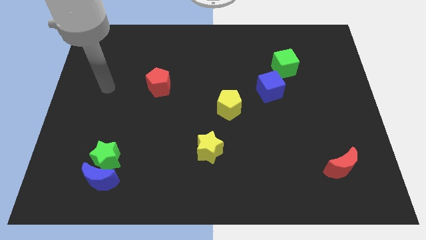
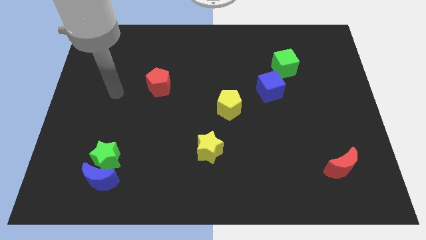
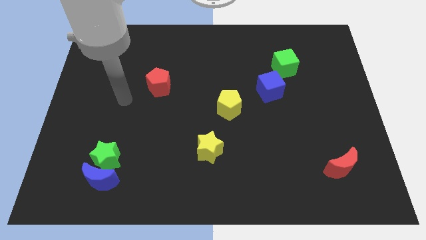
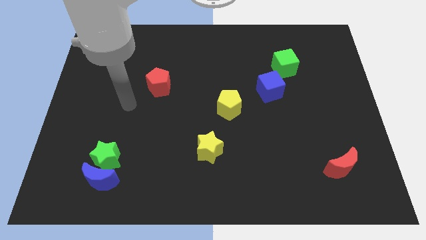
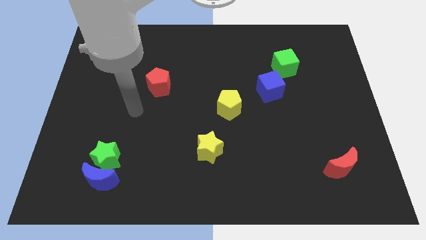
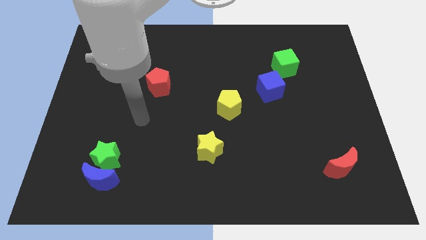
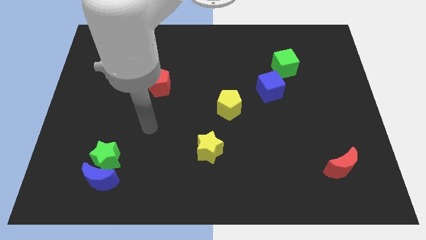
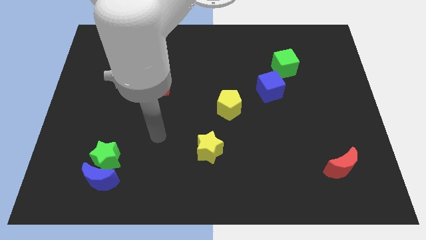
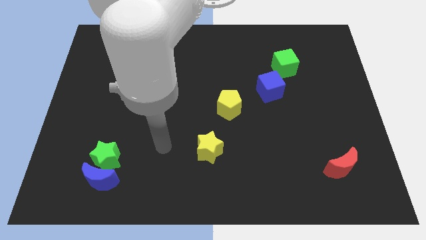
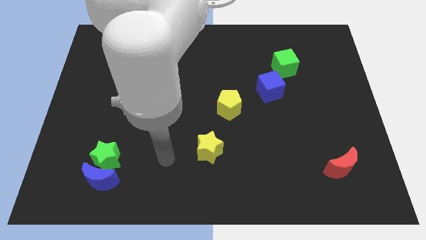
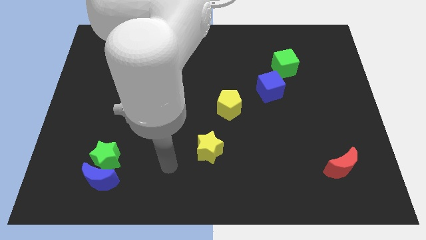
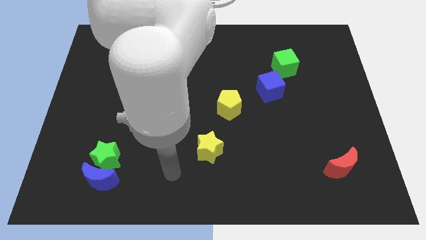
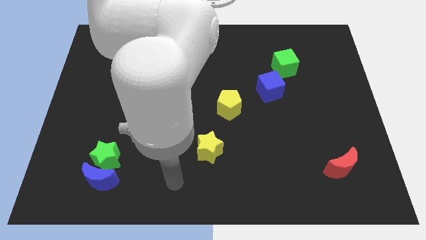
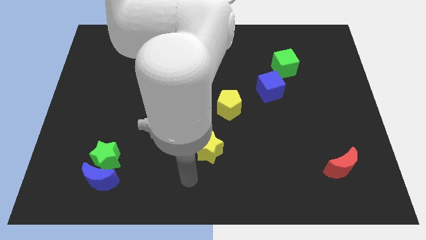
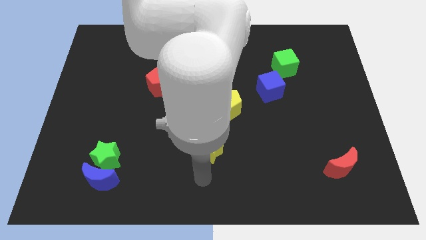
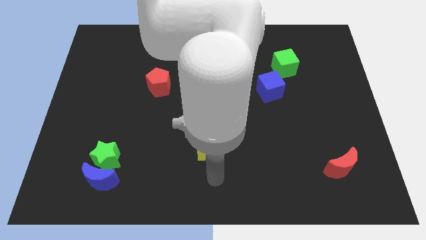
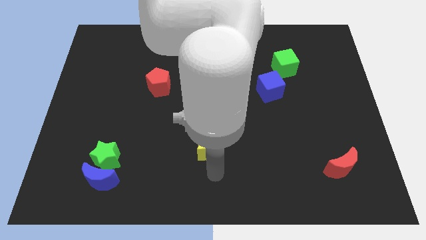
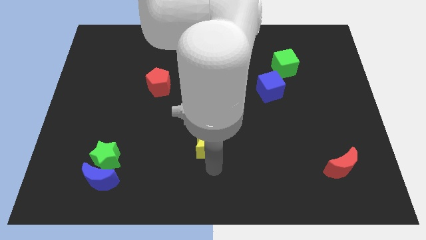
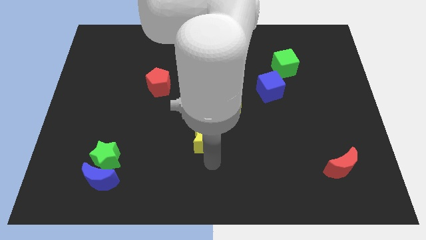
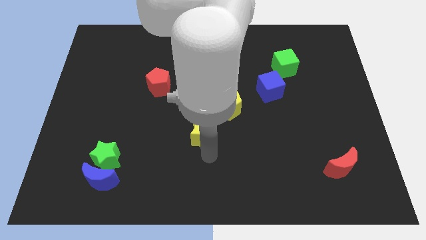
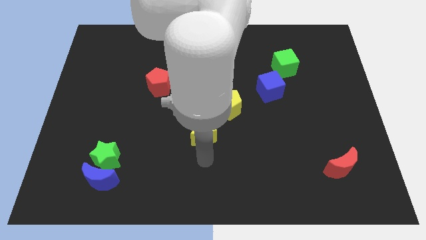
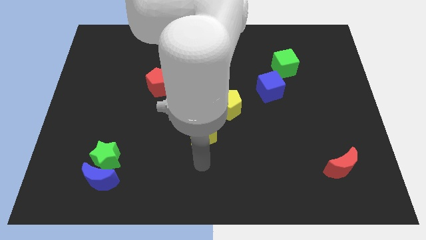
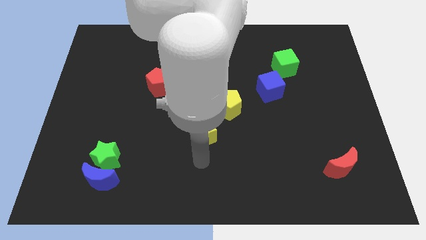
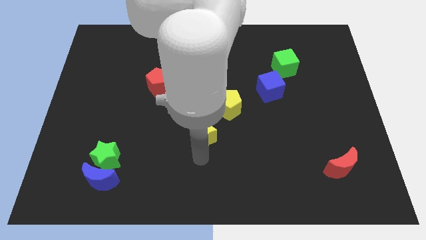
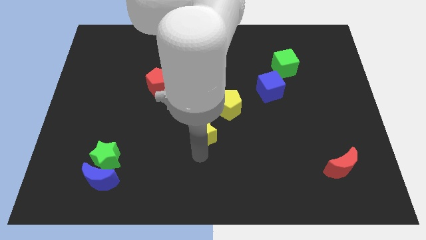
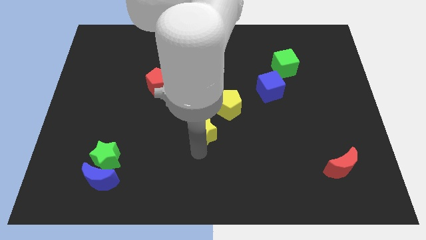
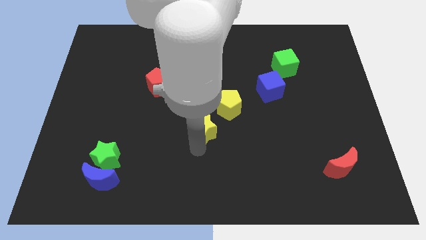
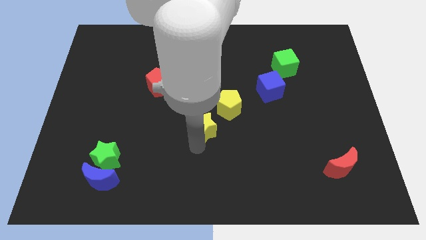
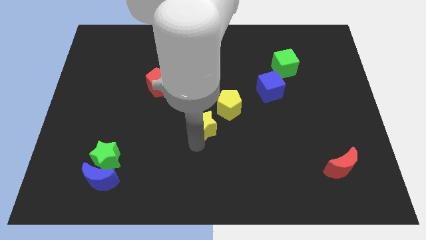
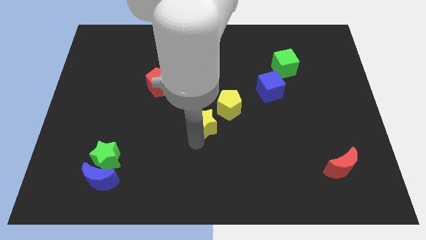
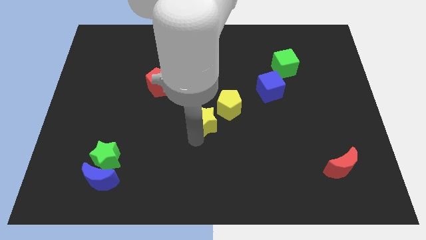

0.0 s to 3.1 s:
slightly slide the yellow star up

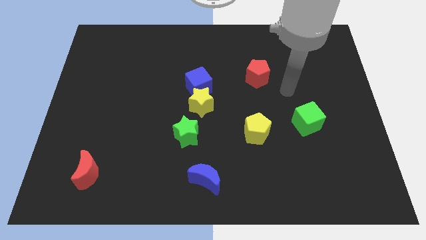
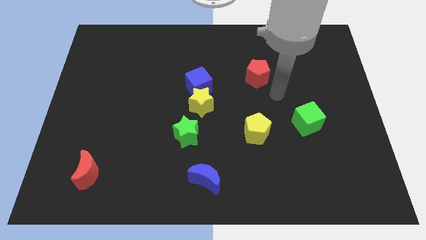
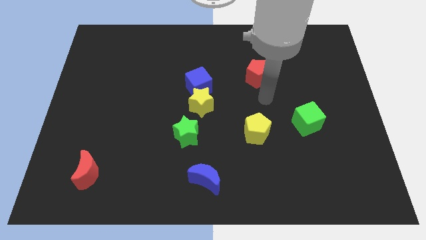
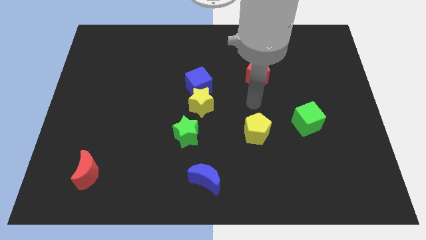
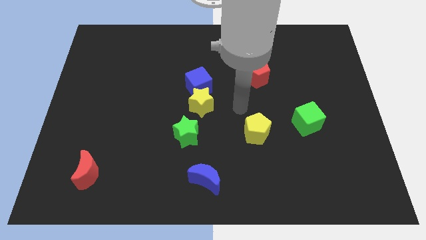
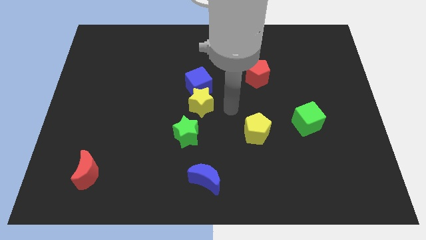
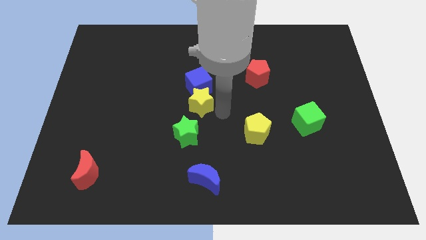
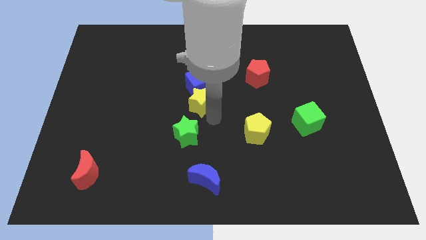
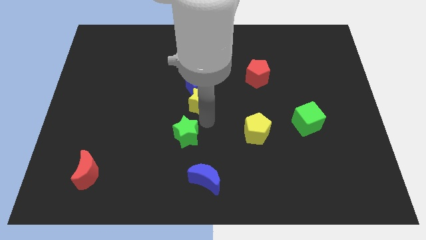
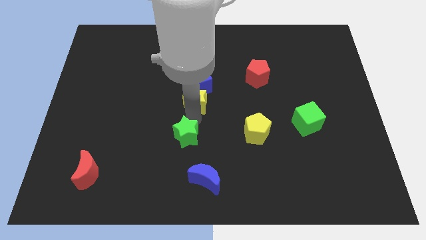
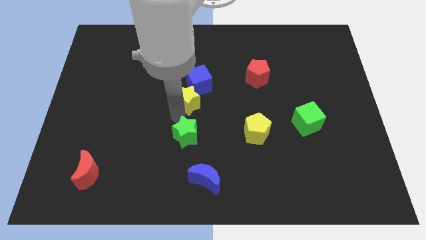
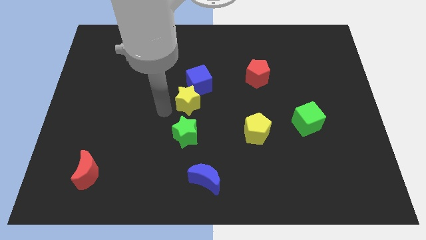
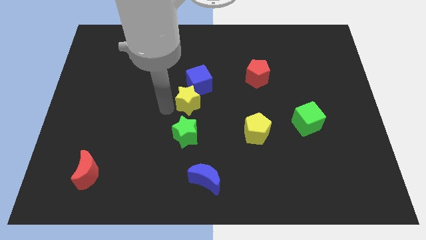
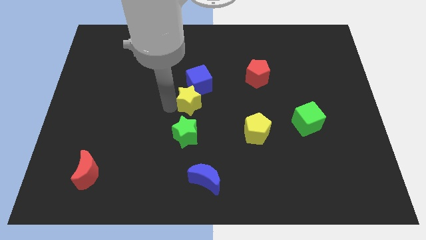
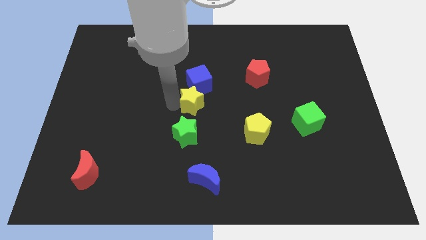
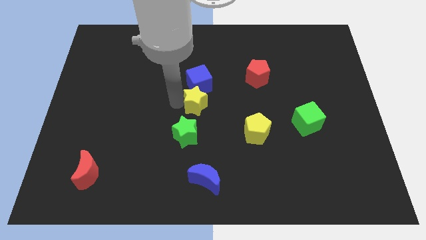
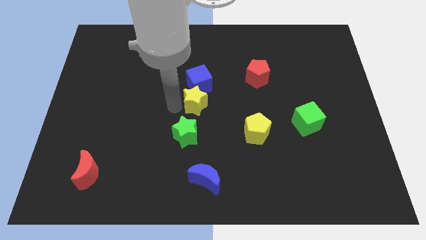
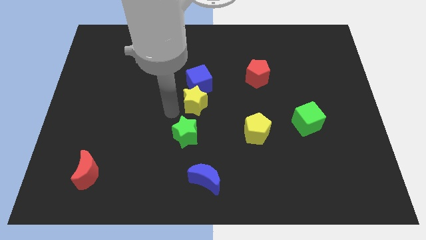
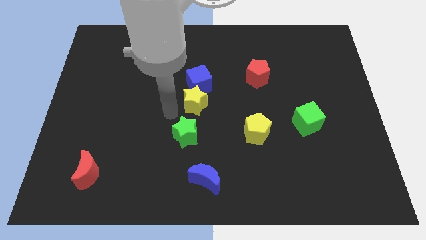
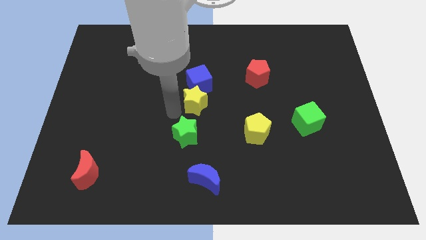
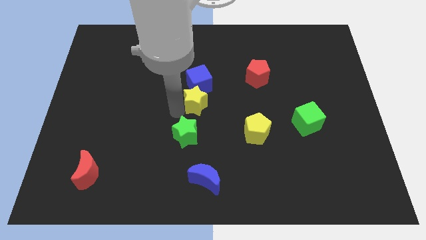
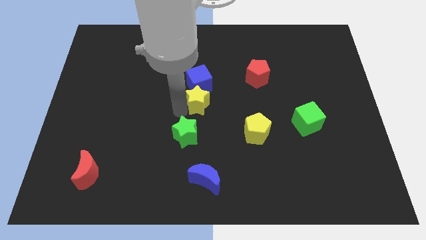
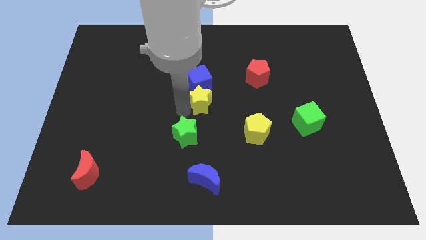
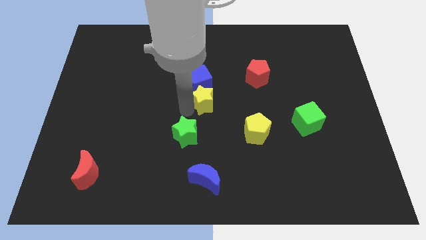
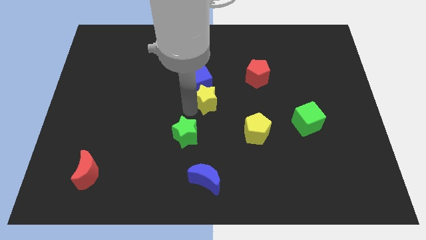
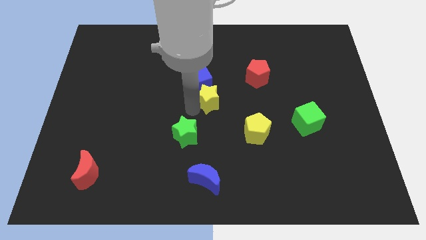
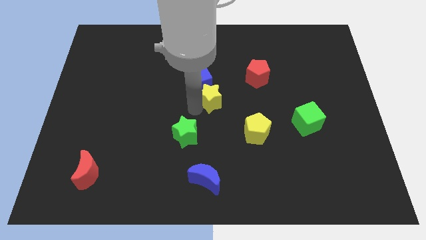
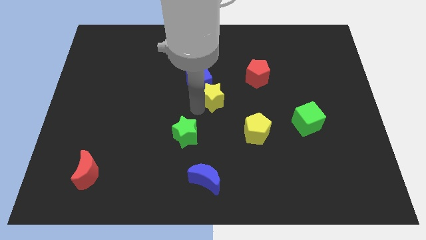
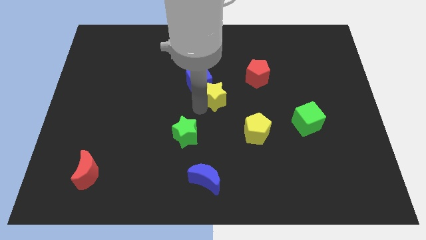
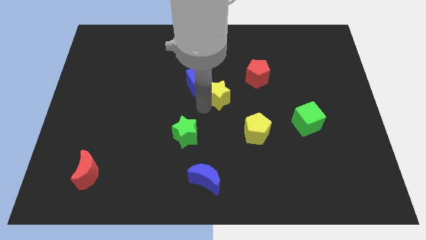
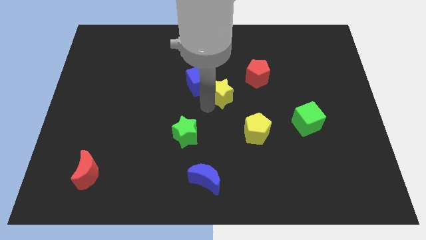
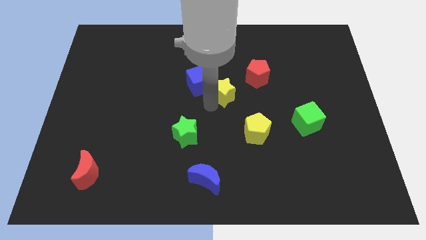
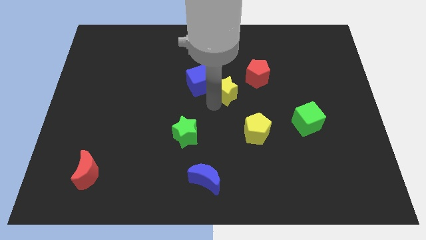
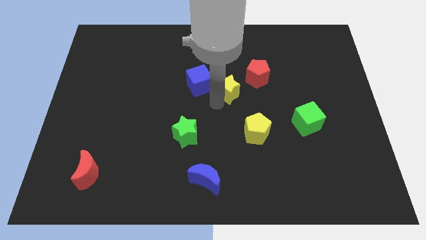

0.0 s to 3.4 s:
slide the yellow star somewhat up and to the right diagonally

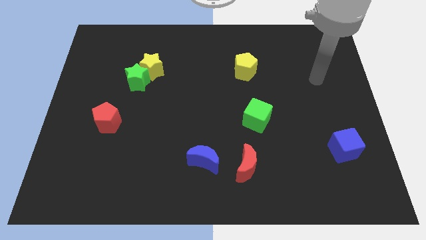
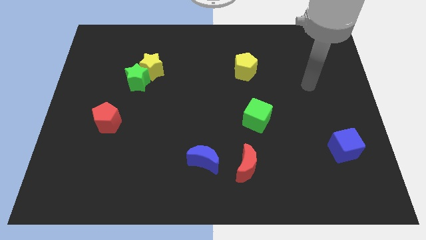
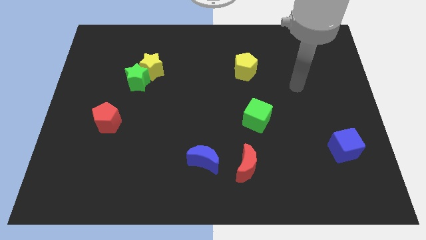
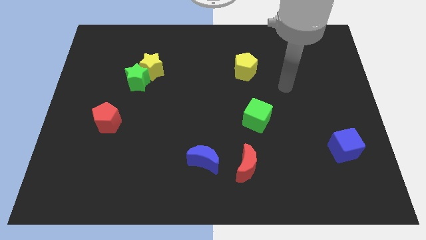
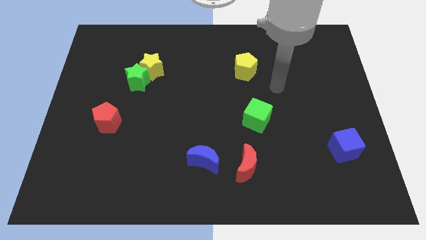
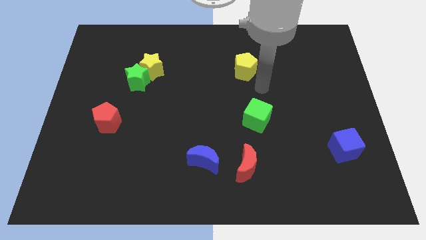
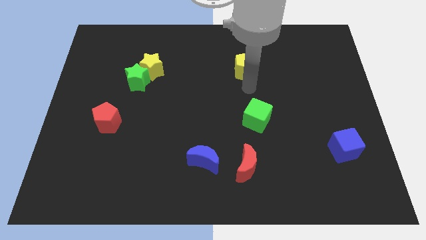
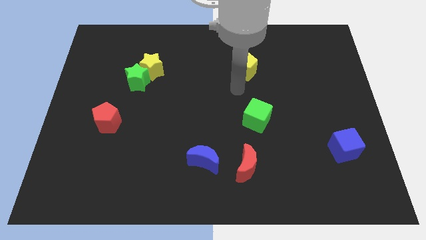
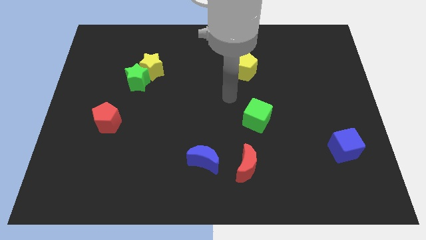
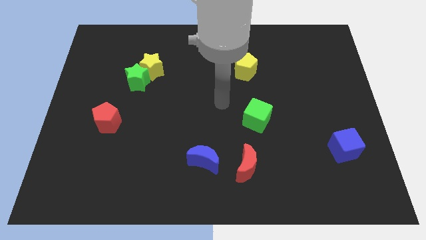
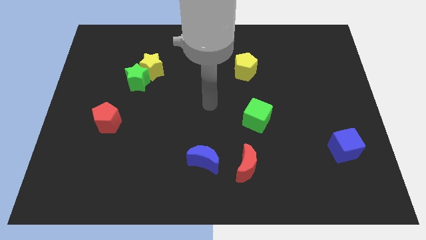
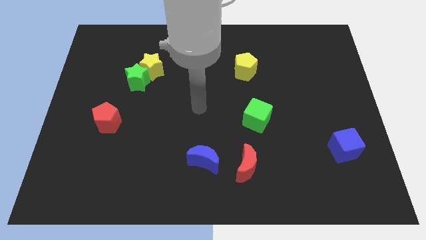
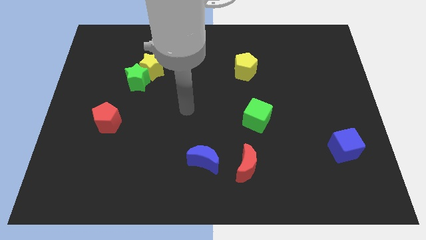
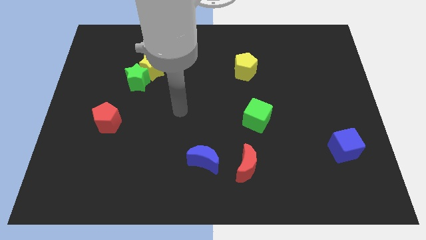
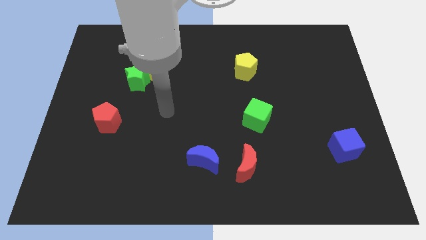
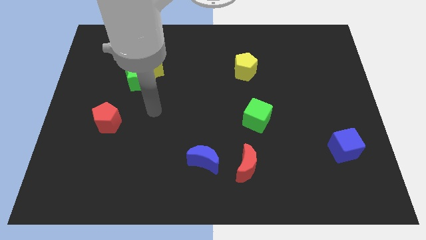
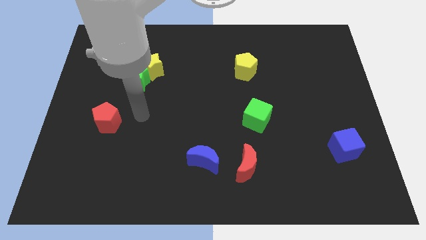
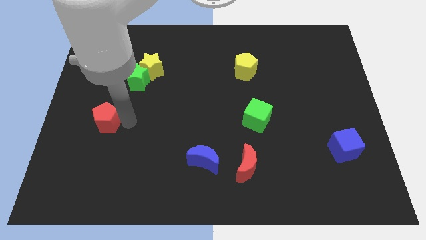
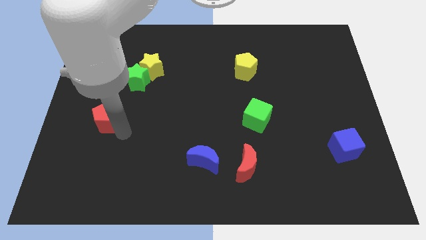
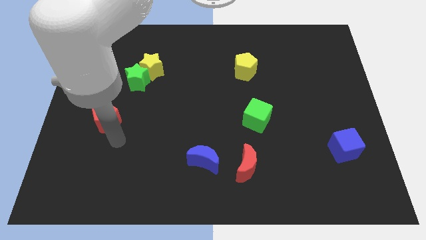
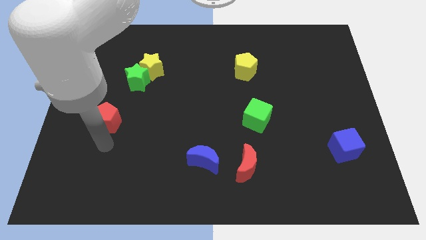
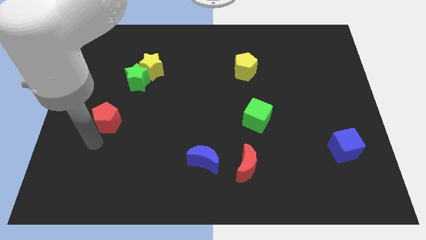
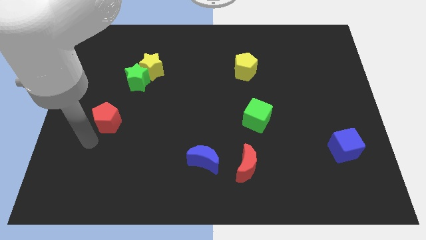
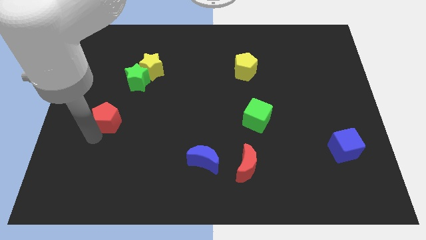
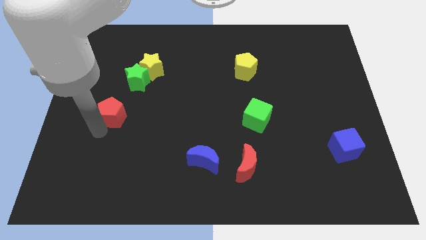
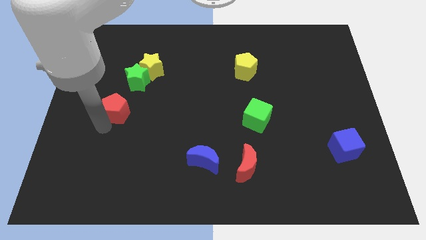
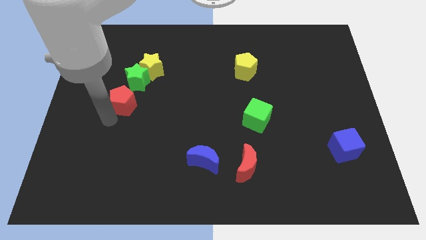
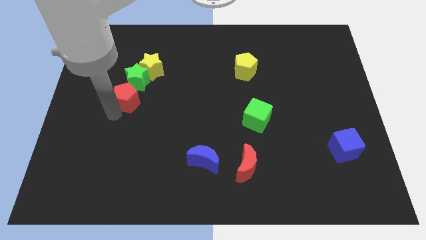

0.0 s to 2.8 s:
slide the red pentagon a little diagonally up and right
